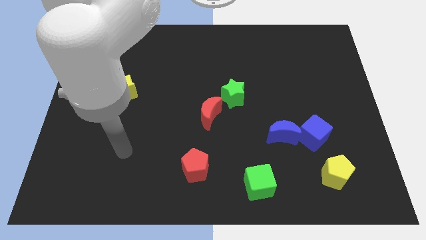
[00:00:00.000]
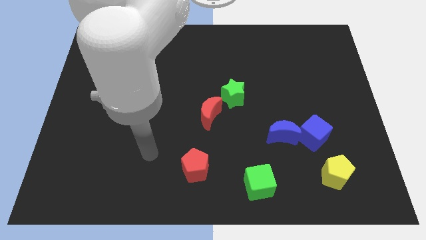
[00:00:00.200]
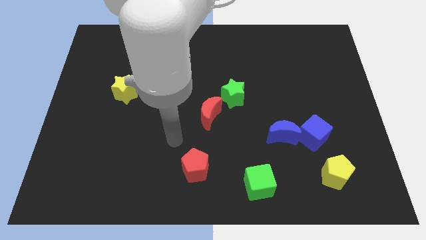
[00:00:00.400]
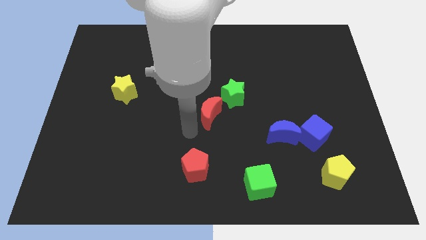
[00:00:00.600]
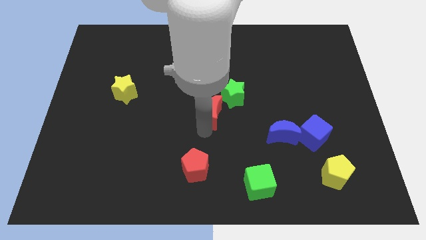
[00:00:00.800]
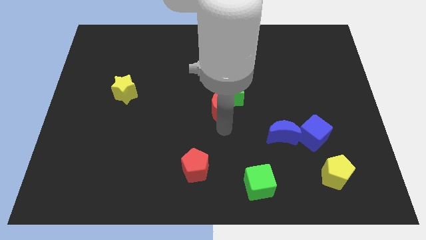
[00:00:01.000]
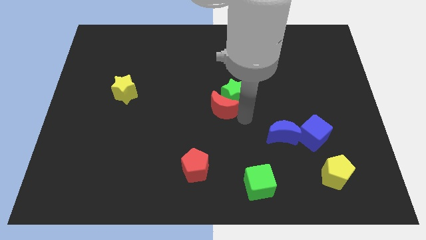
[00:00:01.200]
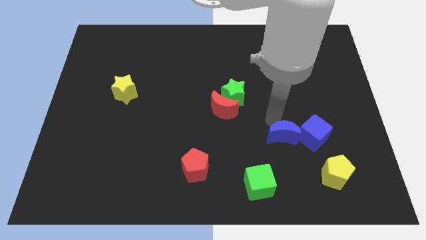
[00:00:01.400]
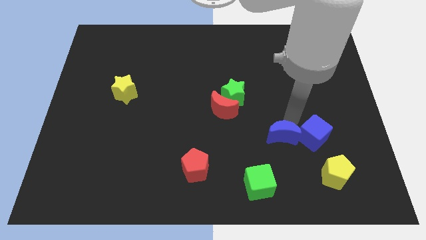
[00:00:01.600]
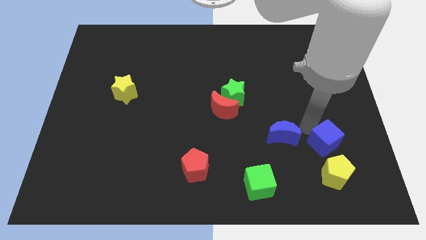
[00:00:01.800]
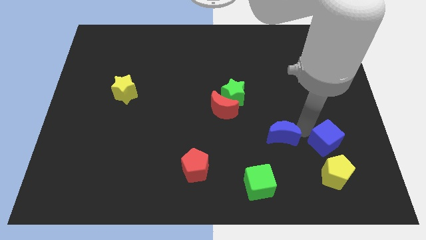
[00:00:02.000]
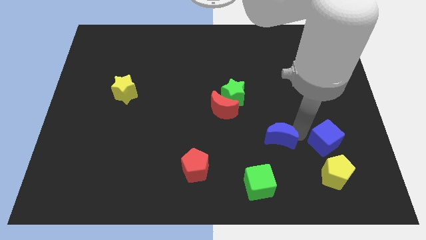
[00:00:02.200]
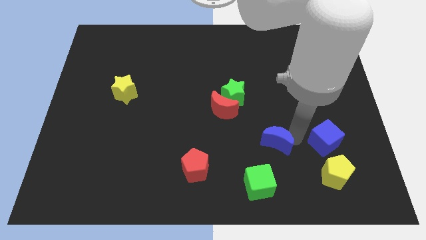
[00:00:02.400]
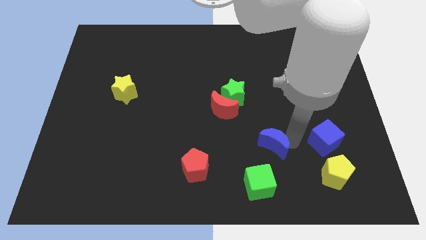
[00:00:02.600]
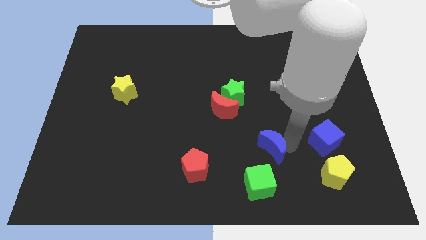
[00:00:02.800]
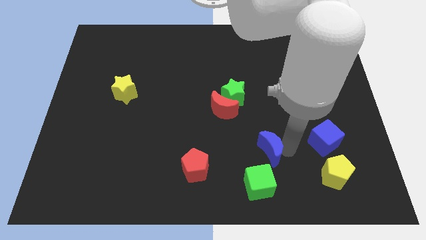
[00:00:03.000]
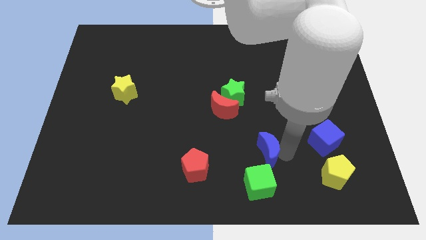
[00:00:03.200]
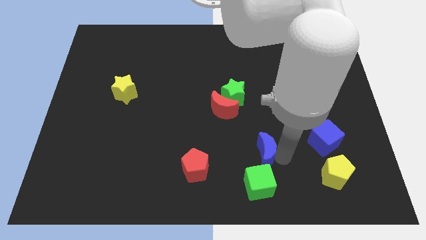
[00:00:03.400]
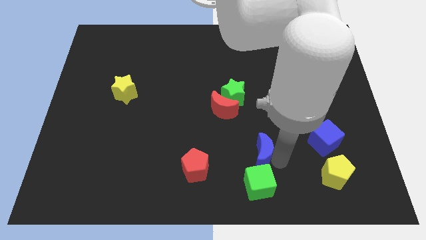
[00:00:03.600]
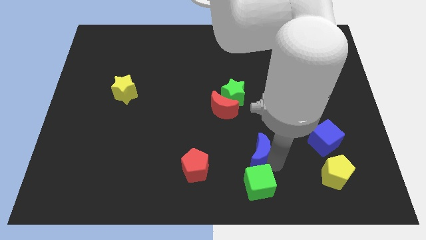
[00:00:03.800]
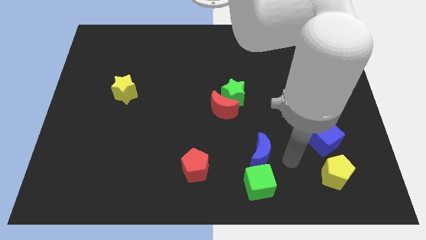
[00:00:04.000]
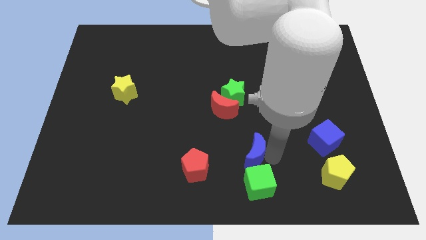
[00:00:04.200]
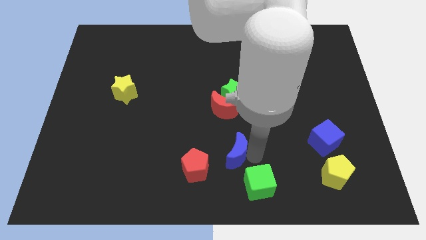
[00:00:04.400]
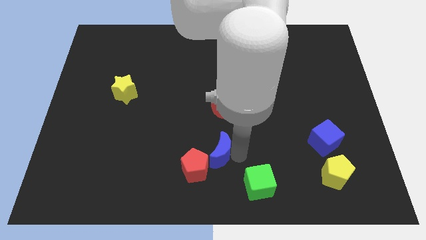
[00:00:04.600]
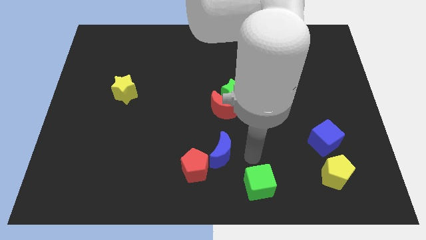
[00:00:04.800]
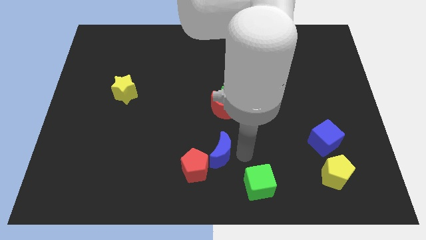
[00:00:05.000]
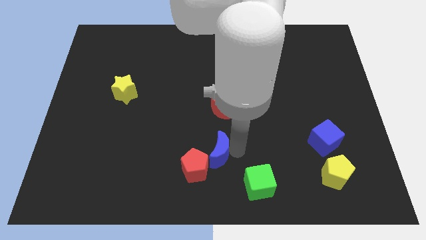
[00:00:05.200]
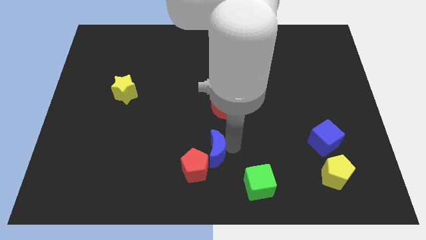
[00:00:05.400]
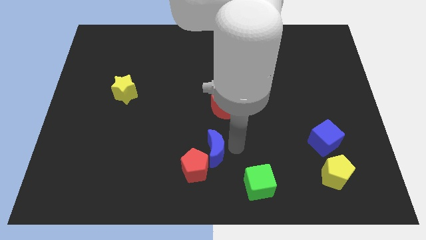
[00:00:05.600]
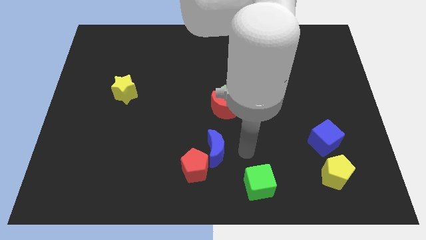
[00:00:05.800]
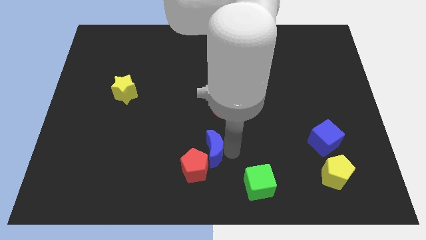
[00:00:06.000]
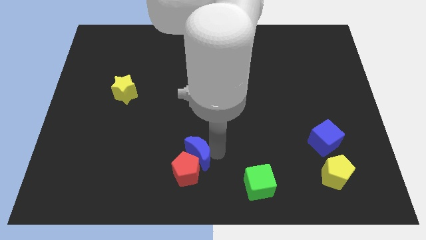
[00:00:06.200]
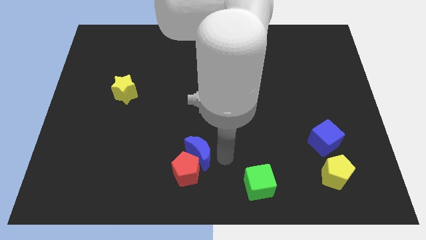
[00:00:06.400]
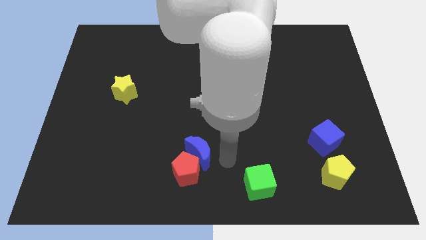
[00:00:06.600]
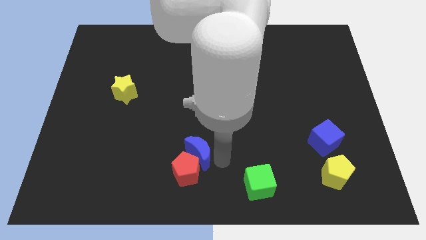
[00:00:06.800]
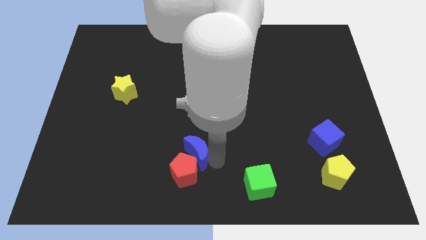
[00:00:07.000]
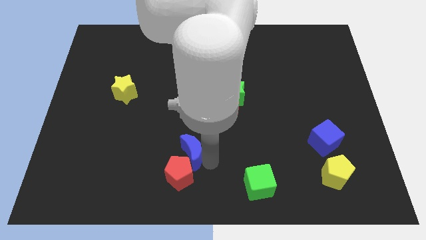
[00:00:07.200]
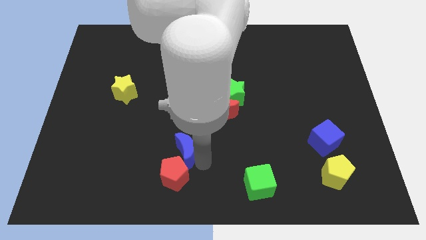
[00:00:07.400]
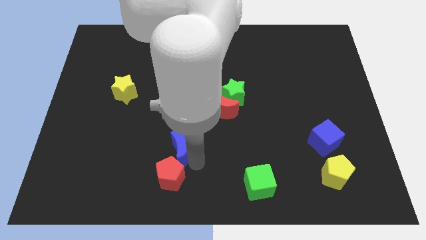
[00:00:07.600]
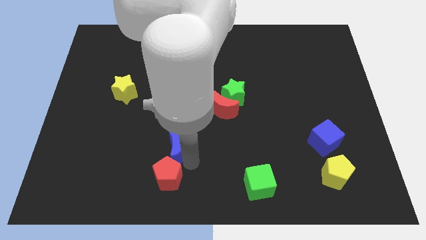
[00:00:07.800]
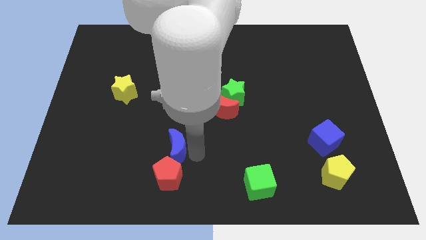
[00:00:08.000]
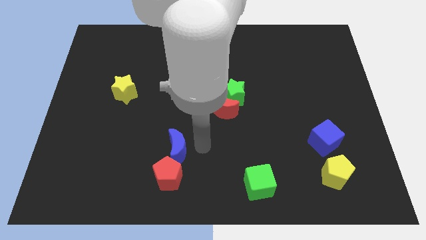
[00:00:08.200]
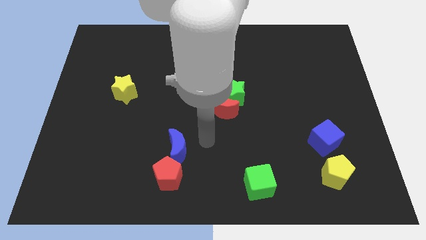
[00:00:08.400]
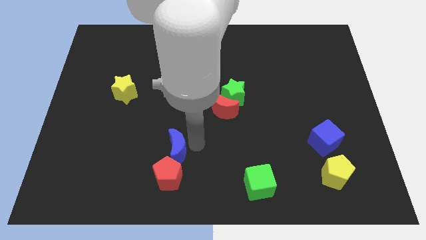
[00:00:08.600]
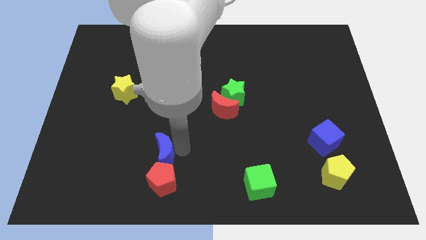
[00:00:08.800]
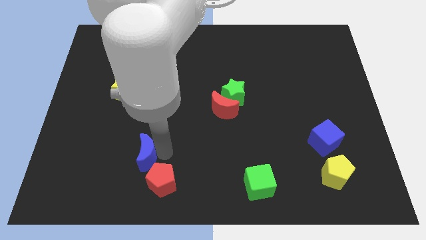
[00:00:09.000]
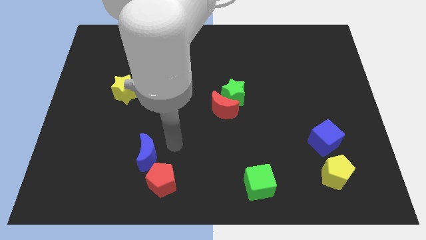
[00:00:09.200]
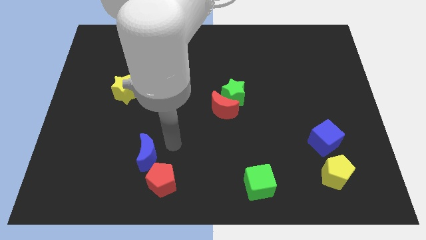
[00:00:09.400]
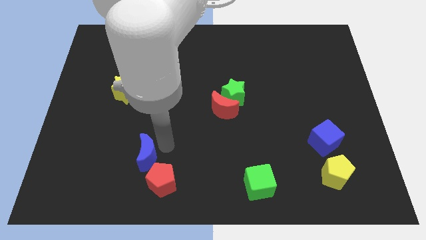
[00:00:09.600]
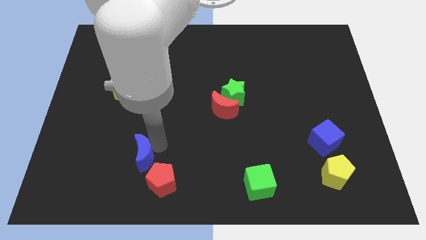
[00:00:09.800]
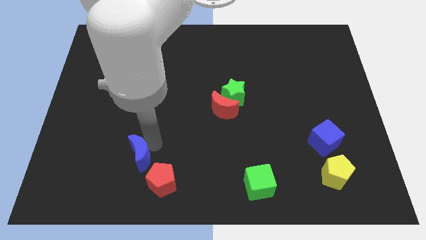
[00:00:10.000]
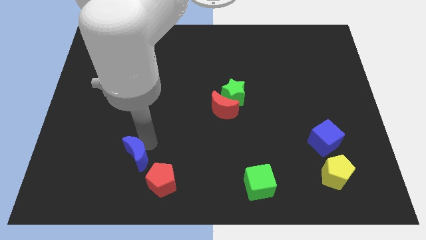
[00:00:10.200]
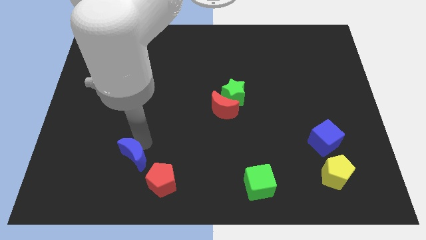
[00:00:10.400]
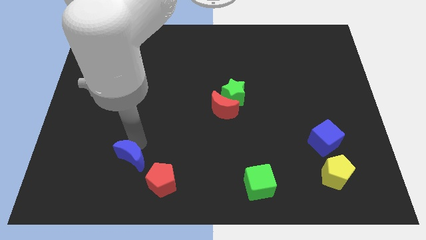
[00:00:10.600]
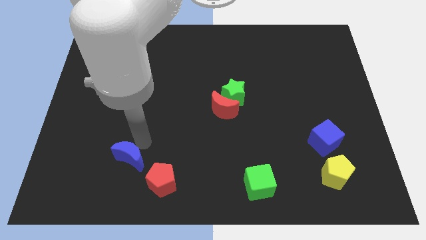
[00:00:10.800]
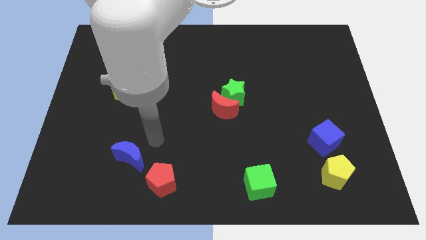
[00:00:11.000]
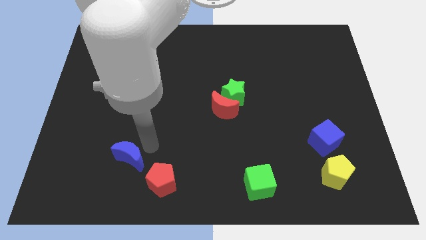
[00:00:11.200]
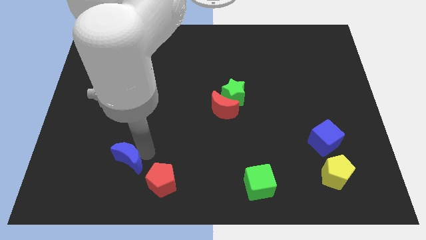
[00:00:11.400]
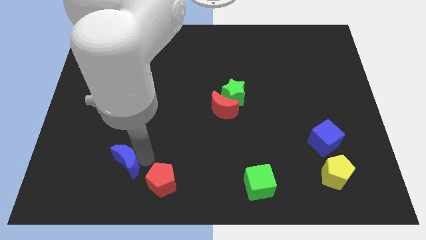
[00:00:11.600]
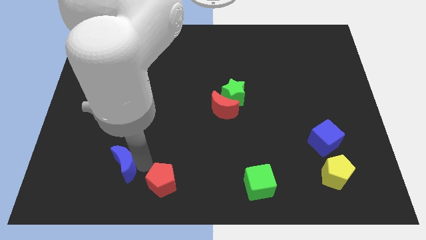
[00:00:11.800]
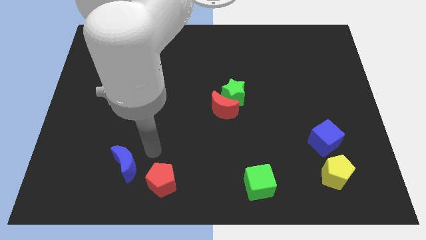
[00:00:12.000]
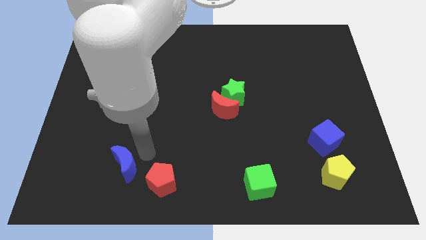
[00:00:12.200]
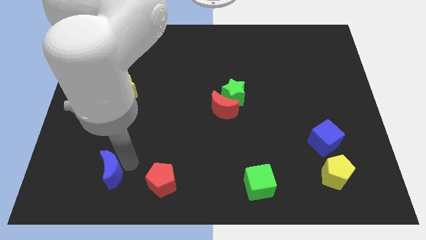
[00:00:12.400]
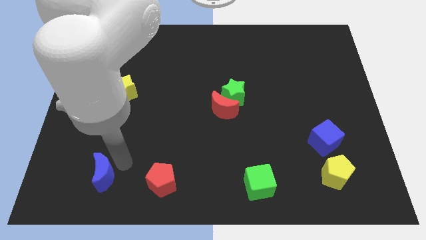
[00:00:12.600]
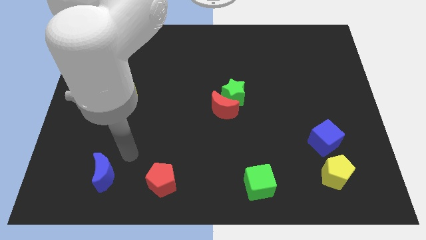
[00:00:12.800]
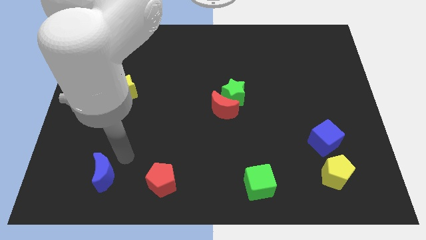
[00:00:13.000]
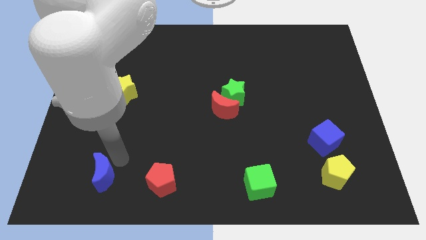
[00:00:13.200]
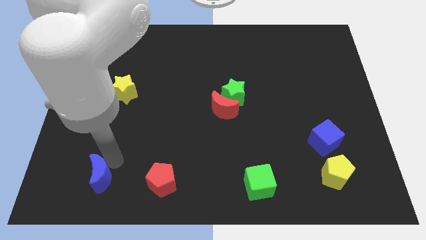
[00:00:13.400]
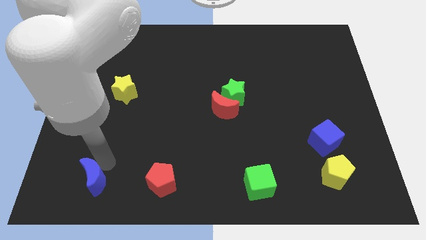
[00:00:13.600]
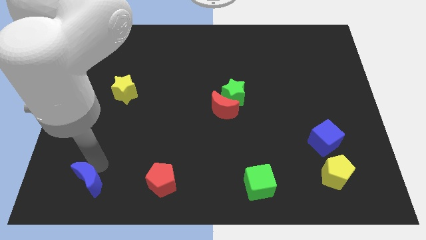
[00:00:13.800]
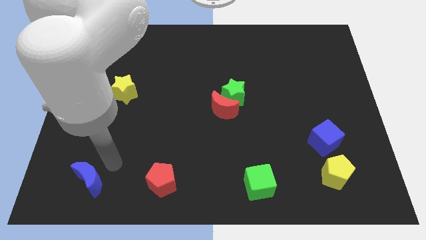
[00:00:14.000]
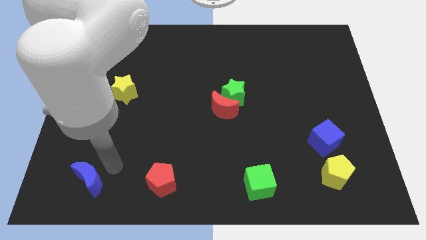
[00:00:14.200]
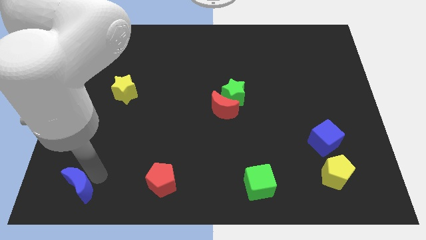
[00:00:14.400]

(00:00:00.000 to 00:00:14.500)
slide the blue moon to the bottom left of the board

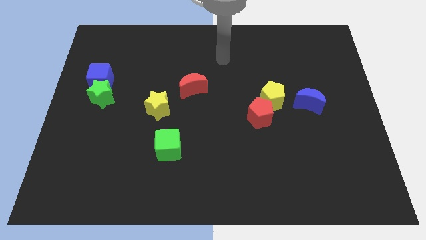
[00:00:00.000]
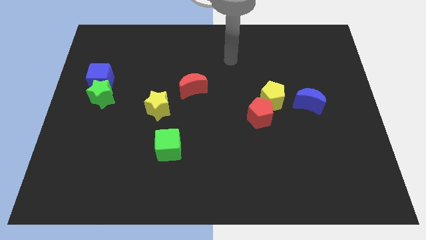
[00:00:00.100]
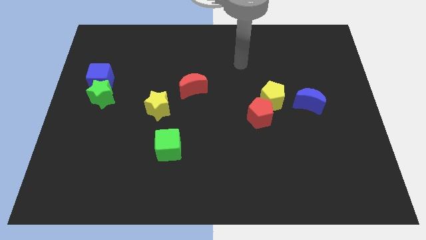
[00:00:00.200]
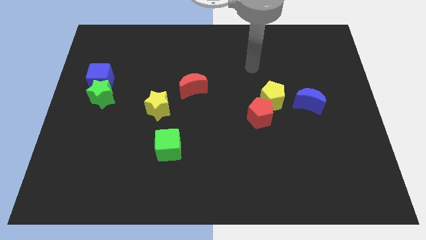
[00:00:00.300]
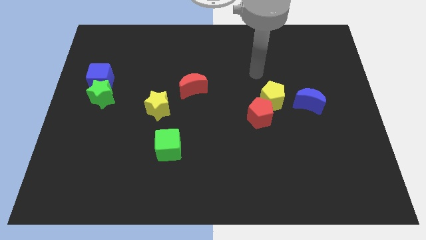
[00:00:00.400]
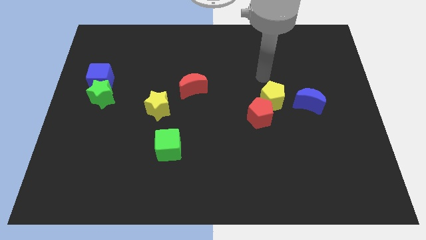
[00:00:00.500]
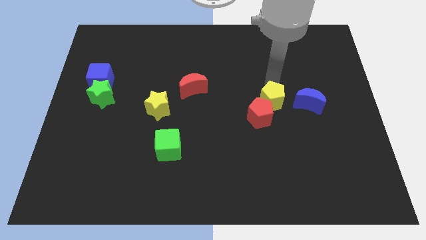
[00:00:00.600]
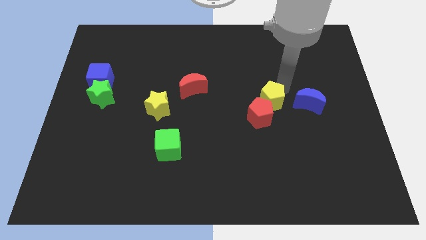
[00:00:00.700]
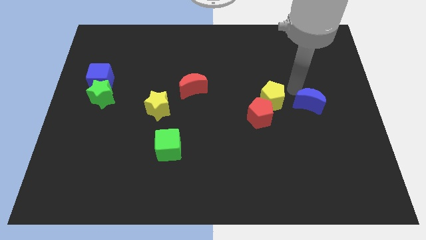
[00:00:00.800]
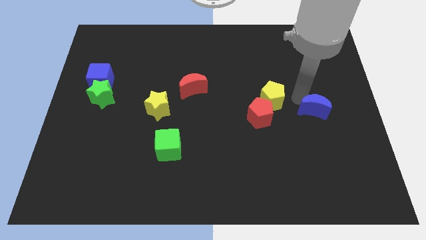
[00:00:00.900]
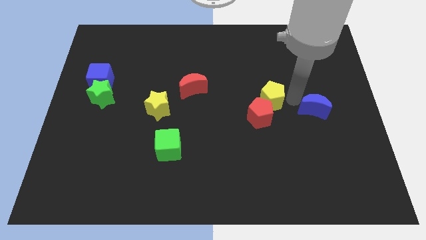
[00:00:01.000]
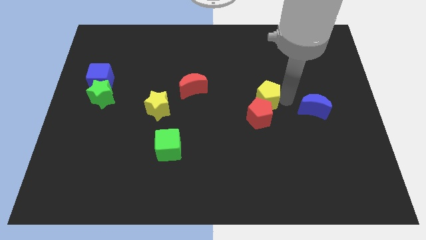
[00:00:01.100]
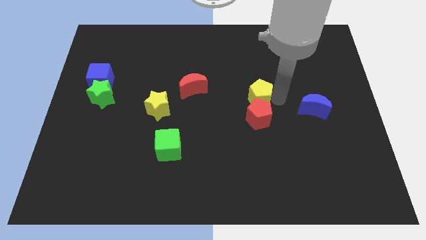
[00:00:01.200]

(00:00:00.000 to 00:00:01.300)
put the yellow pentagon to the center
